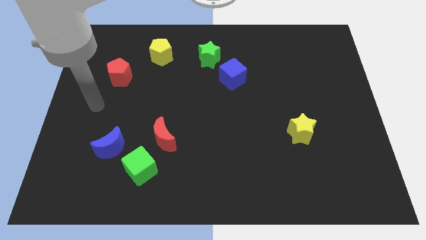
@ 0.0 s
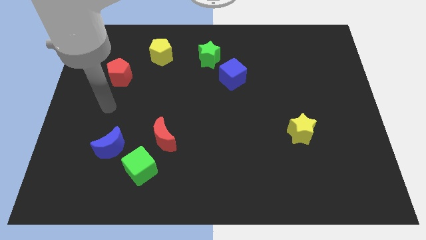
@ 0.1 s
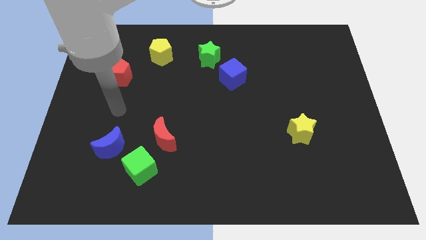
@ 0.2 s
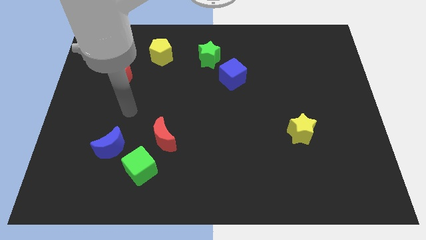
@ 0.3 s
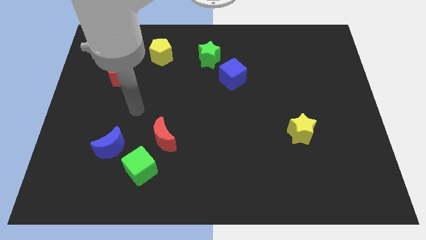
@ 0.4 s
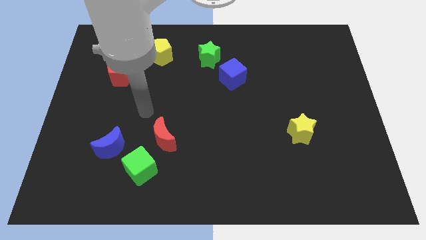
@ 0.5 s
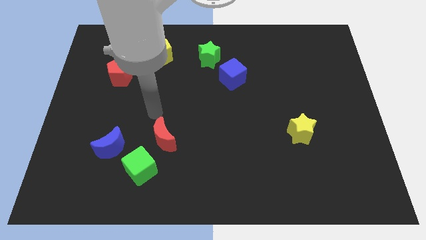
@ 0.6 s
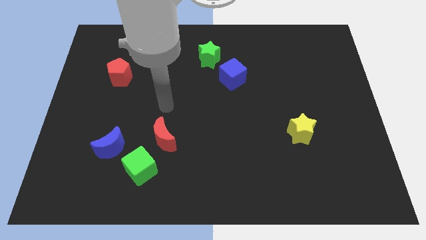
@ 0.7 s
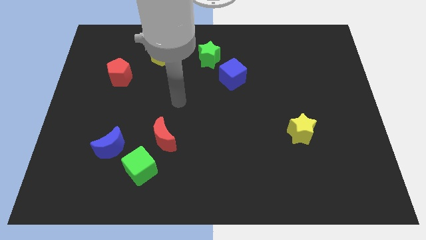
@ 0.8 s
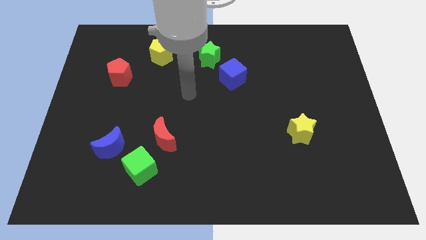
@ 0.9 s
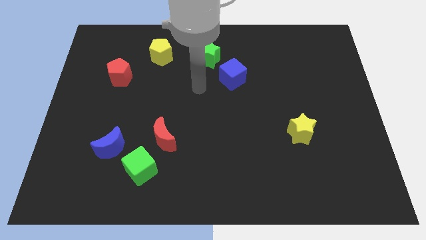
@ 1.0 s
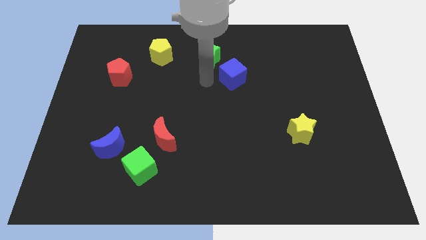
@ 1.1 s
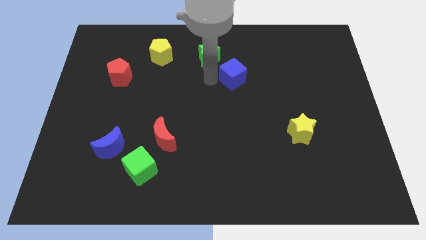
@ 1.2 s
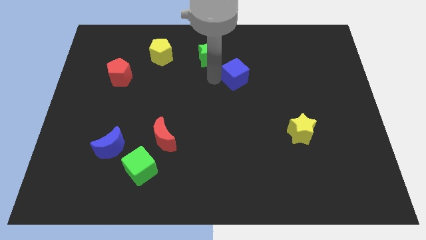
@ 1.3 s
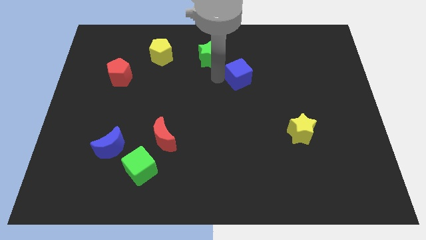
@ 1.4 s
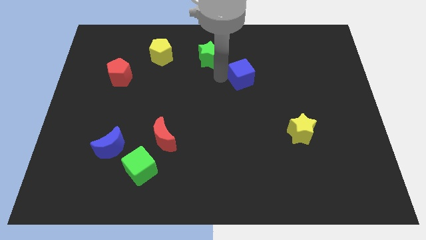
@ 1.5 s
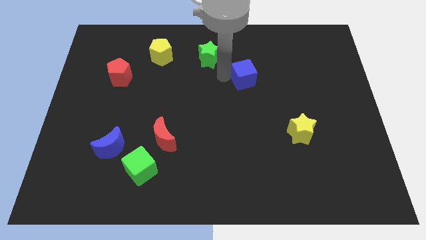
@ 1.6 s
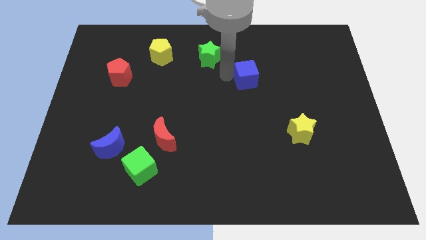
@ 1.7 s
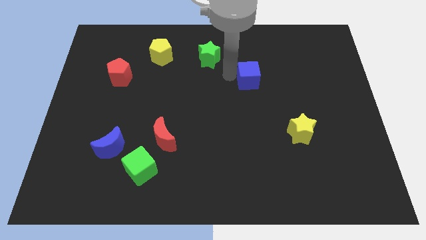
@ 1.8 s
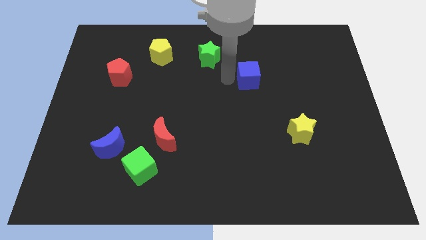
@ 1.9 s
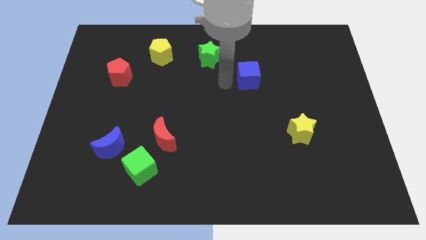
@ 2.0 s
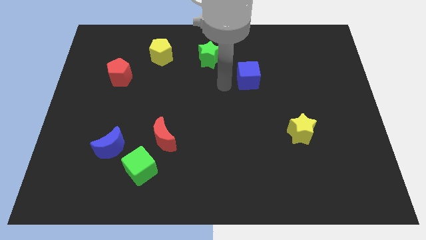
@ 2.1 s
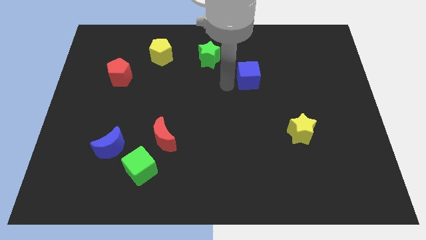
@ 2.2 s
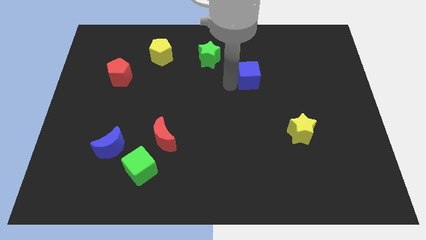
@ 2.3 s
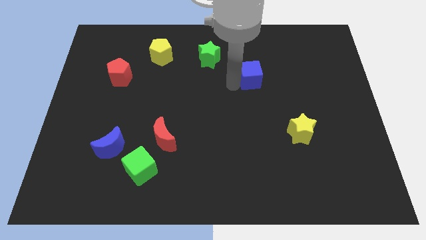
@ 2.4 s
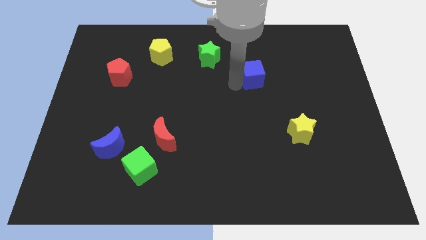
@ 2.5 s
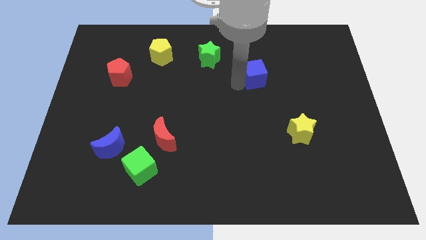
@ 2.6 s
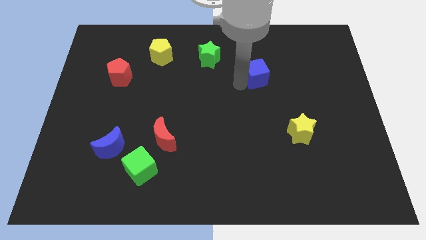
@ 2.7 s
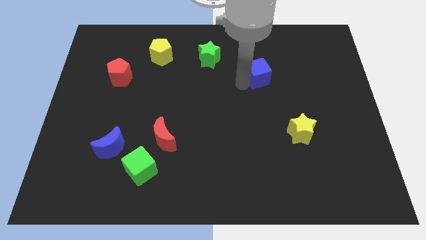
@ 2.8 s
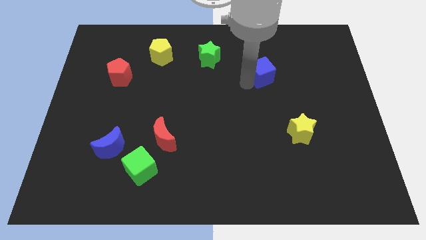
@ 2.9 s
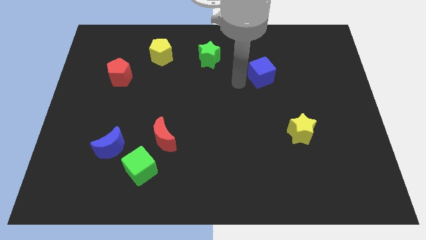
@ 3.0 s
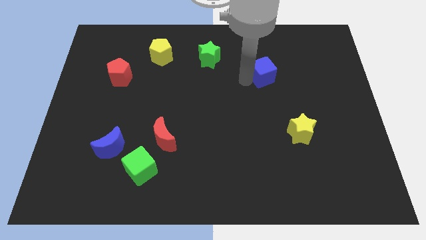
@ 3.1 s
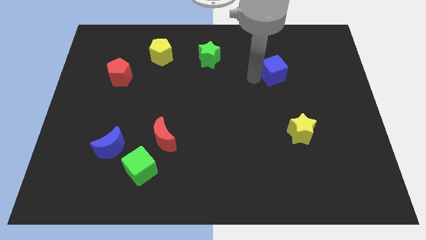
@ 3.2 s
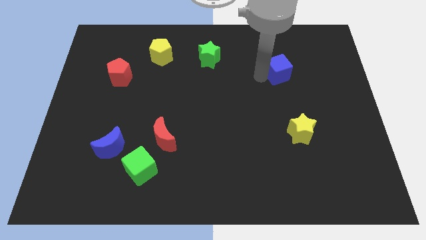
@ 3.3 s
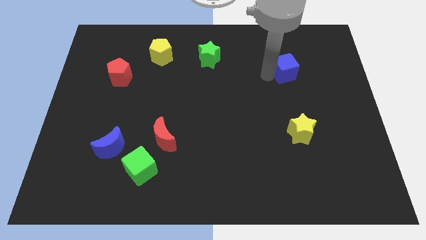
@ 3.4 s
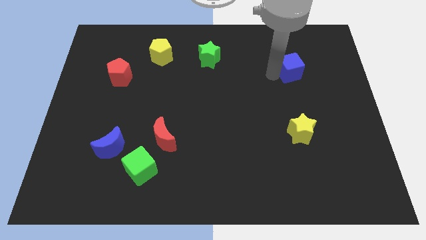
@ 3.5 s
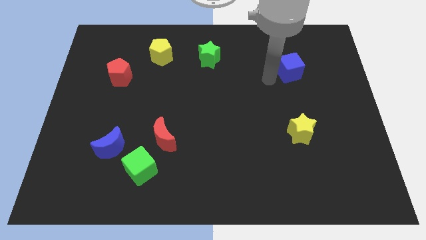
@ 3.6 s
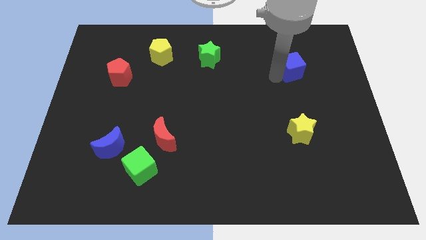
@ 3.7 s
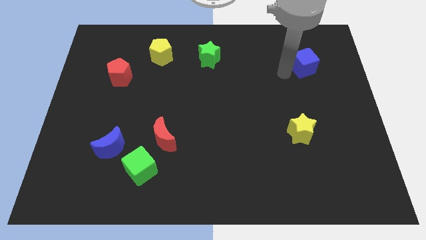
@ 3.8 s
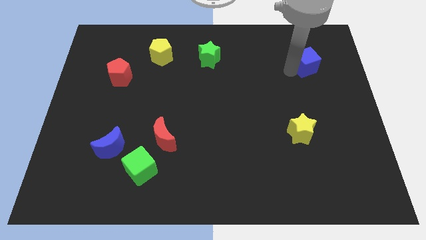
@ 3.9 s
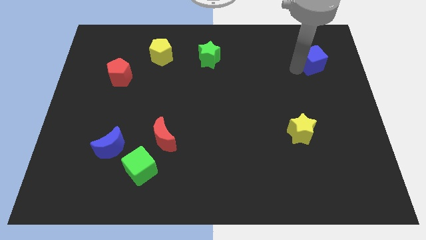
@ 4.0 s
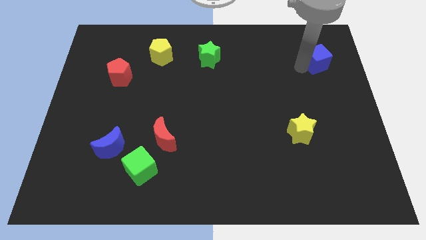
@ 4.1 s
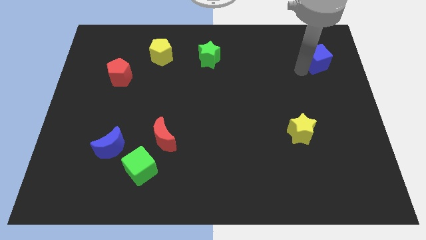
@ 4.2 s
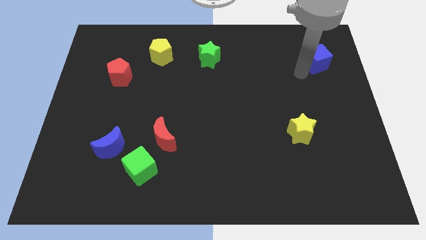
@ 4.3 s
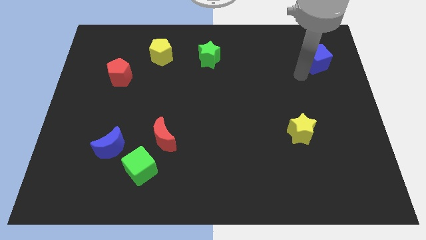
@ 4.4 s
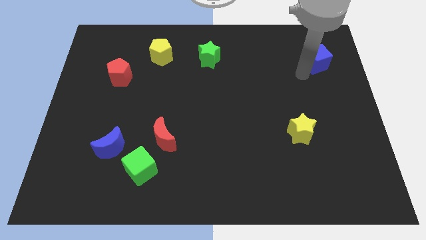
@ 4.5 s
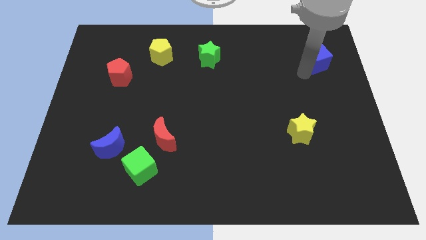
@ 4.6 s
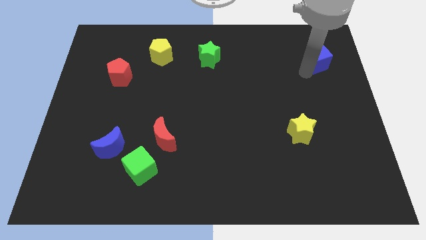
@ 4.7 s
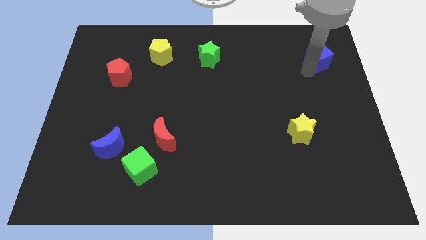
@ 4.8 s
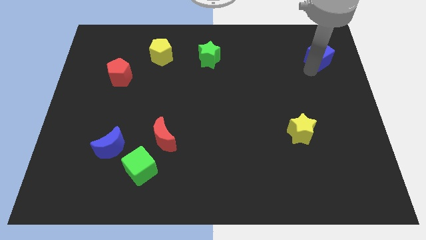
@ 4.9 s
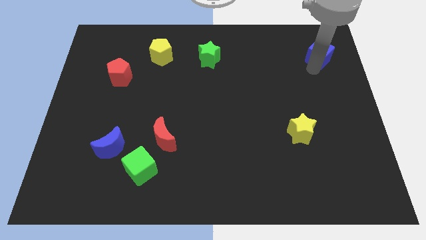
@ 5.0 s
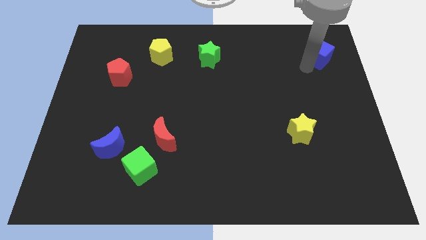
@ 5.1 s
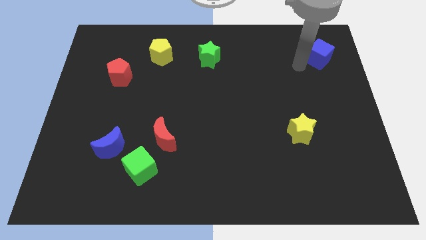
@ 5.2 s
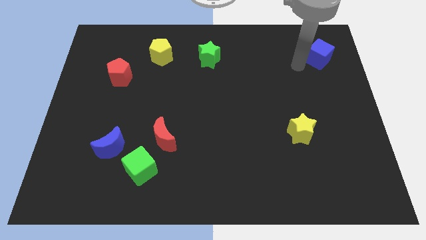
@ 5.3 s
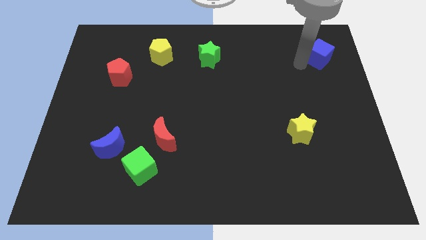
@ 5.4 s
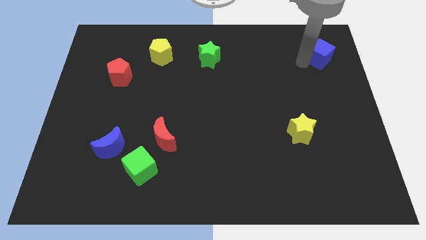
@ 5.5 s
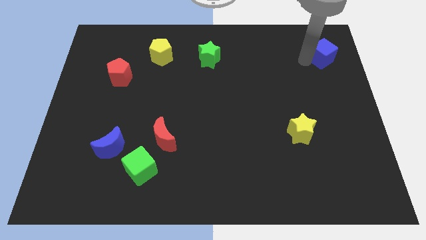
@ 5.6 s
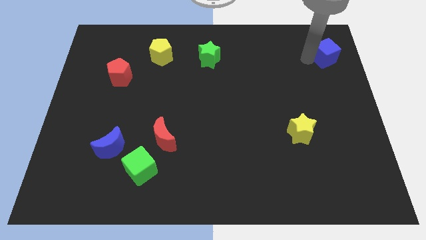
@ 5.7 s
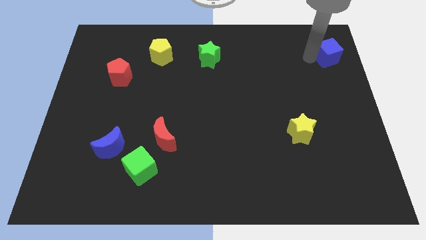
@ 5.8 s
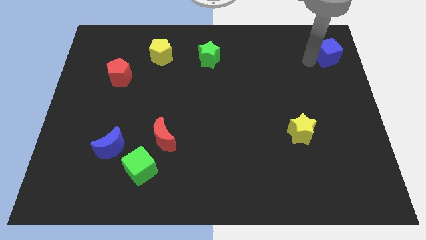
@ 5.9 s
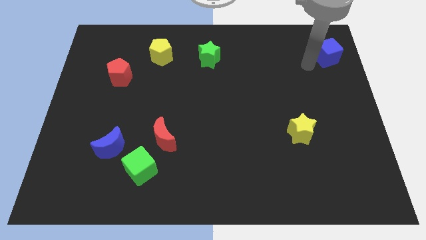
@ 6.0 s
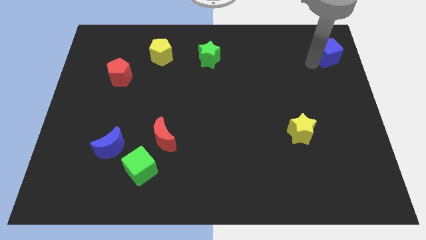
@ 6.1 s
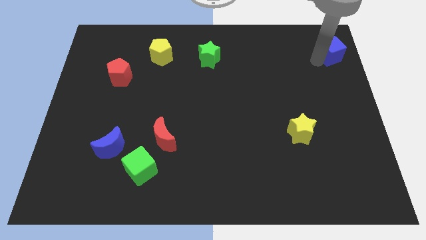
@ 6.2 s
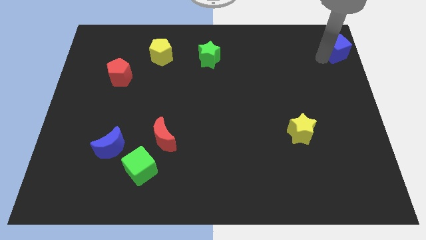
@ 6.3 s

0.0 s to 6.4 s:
move the blue cube to the upper right corner
